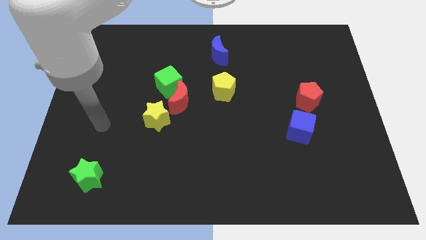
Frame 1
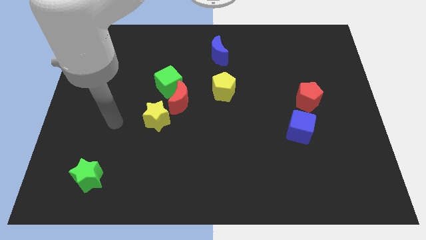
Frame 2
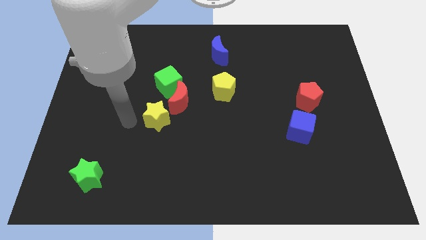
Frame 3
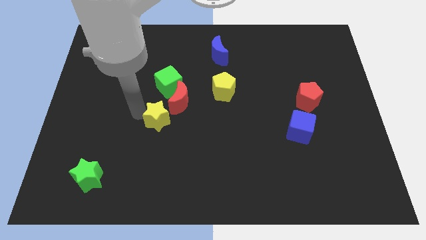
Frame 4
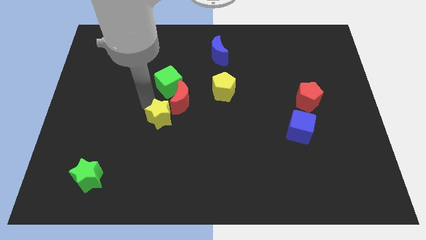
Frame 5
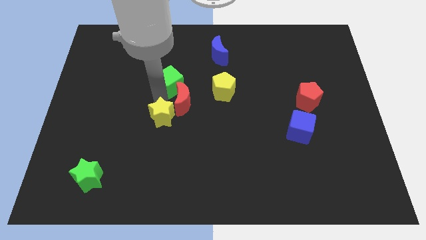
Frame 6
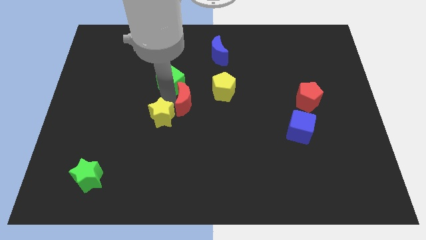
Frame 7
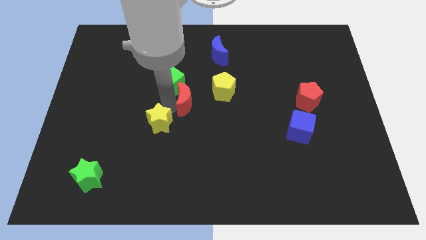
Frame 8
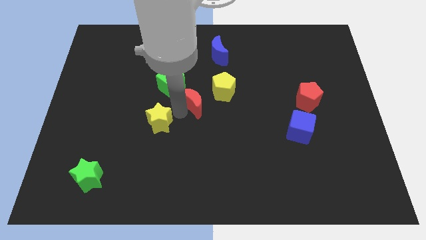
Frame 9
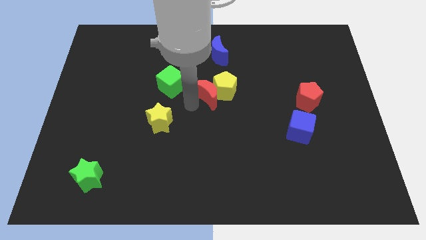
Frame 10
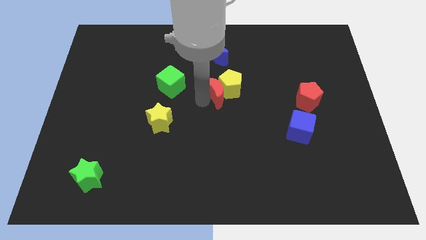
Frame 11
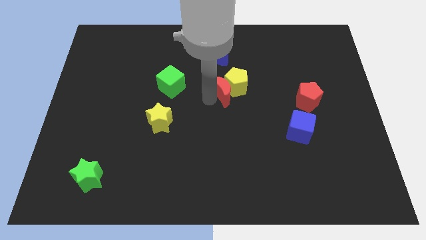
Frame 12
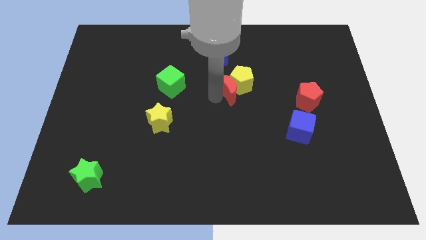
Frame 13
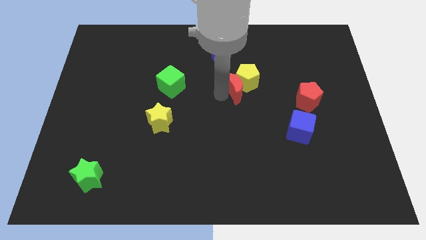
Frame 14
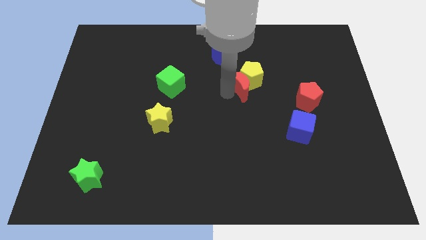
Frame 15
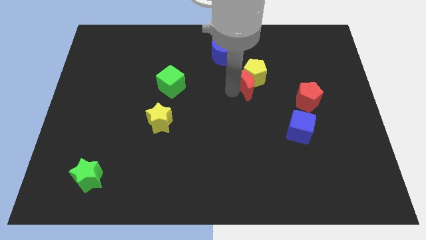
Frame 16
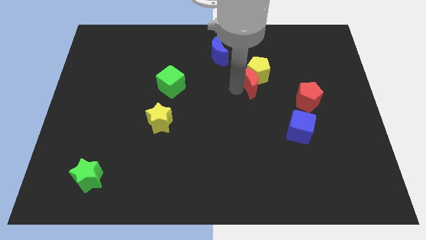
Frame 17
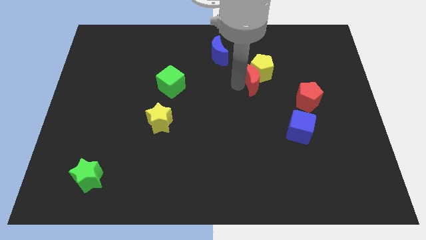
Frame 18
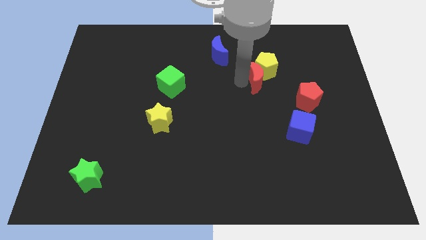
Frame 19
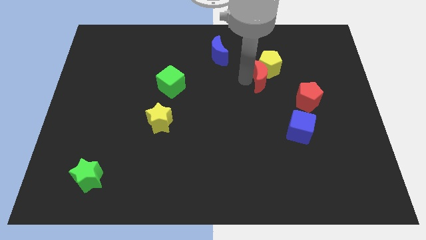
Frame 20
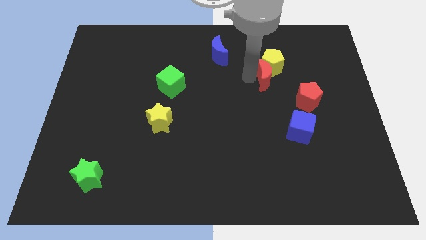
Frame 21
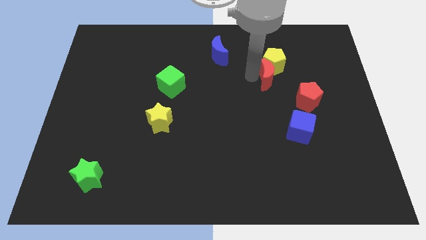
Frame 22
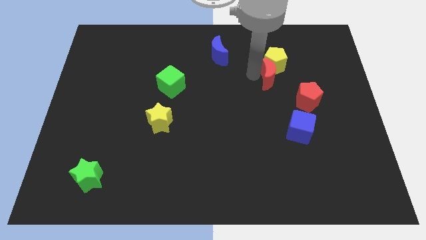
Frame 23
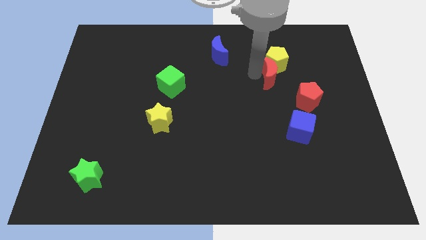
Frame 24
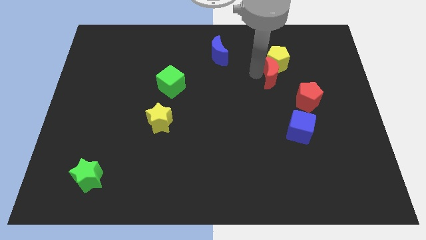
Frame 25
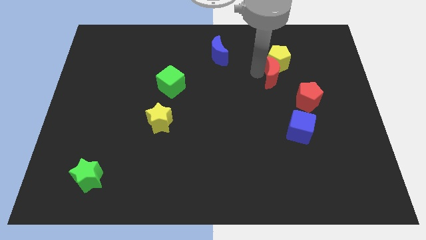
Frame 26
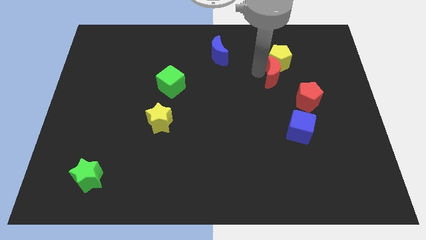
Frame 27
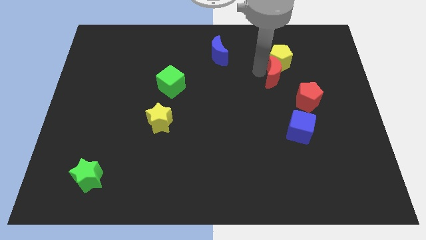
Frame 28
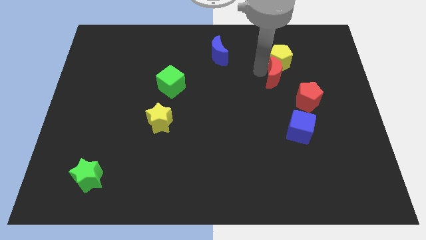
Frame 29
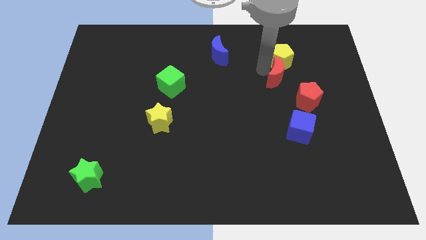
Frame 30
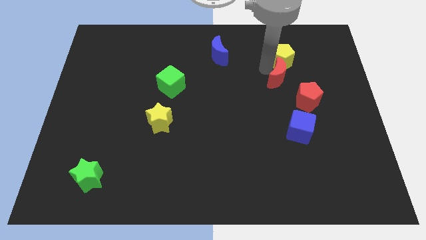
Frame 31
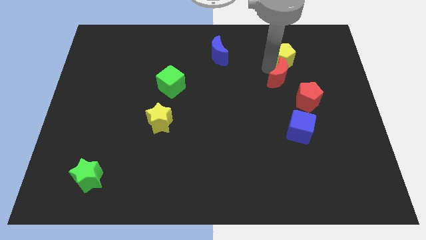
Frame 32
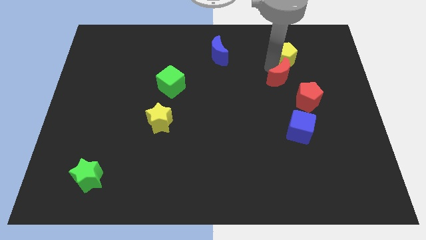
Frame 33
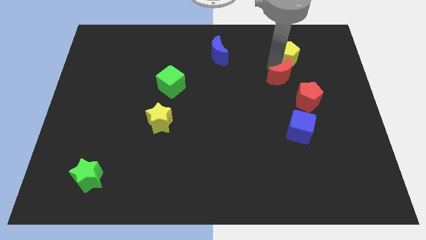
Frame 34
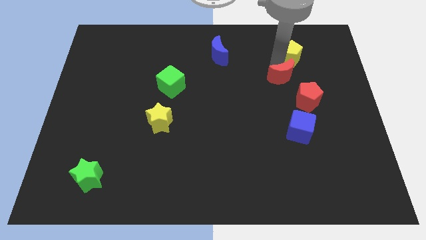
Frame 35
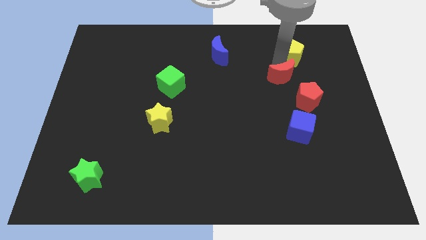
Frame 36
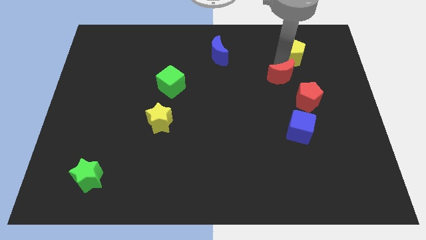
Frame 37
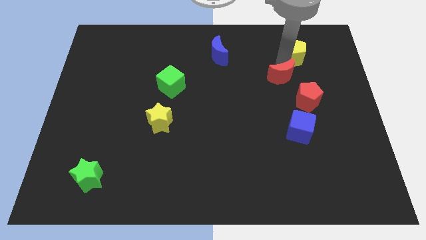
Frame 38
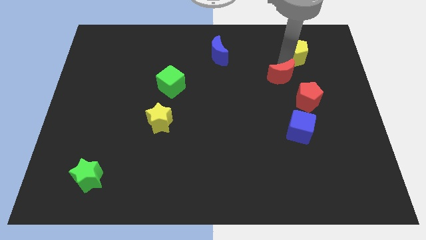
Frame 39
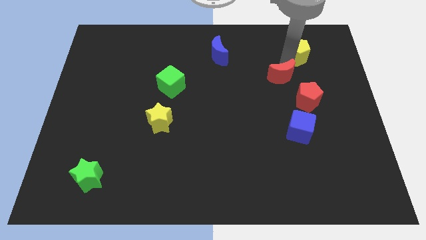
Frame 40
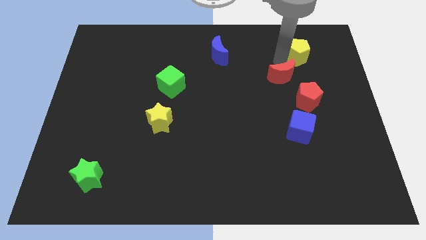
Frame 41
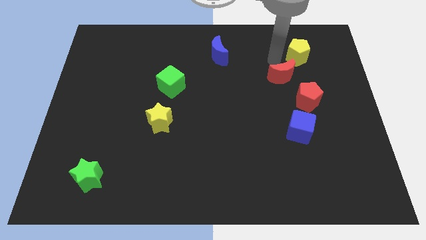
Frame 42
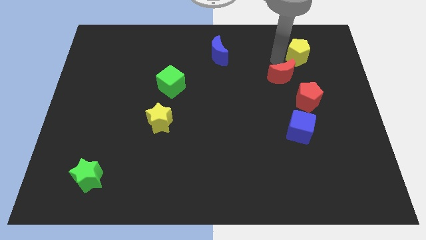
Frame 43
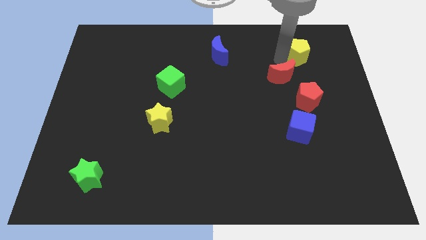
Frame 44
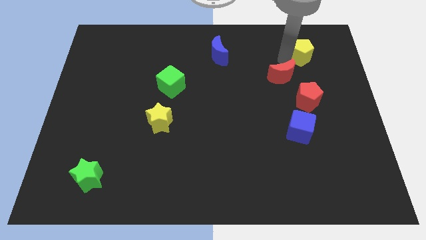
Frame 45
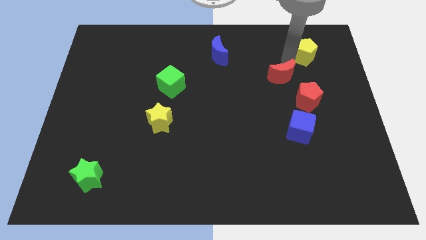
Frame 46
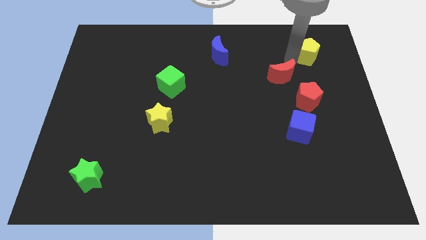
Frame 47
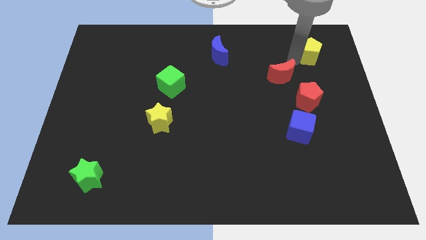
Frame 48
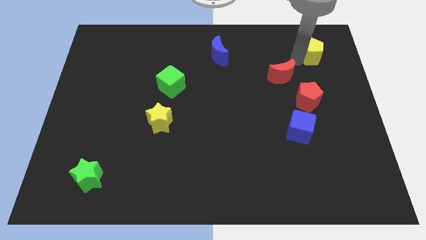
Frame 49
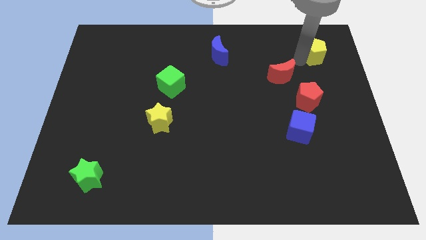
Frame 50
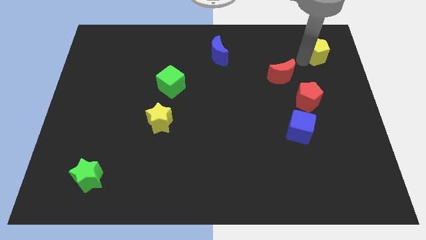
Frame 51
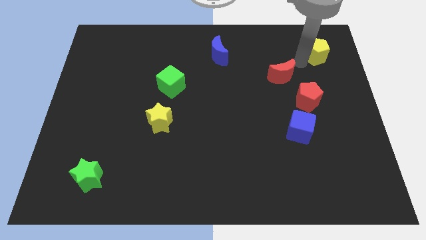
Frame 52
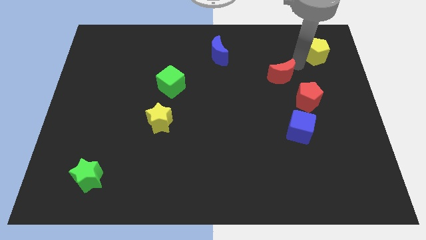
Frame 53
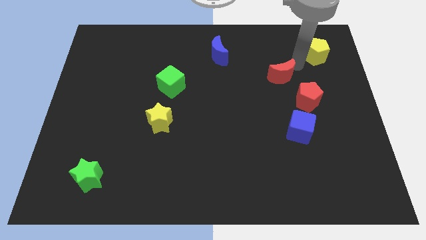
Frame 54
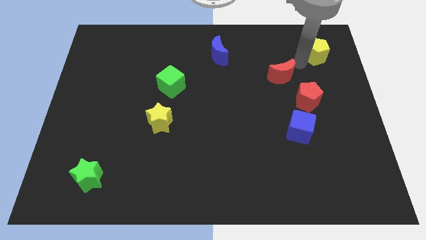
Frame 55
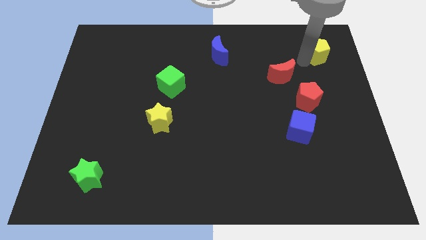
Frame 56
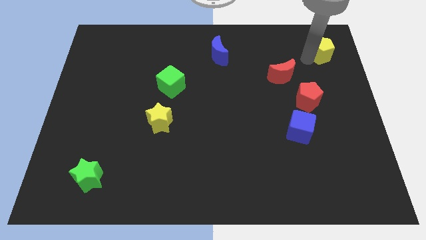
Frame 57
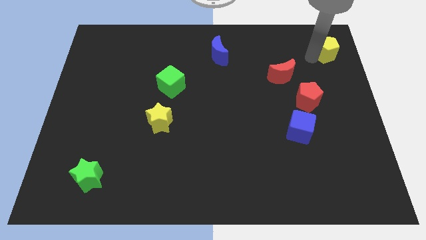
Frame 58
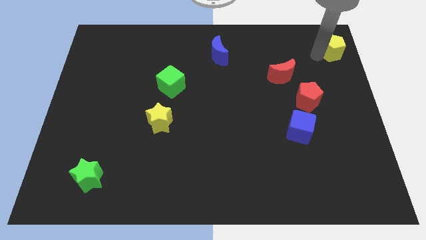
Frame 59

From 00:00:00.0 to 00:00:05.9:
move the yellow pentagon to the top right corner

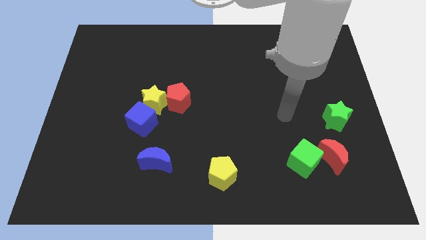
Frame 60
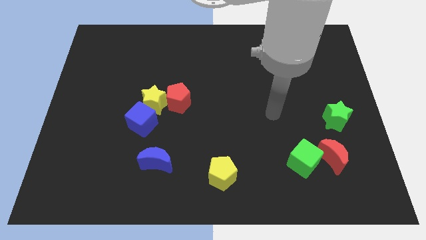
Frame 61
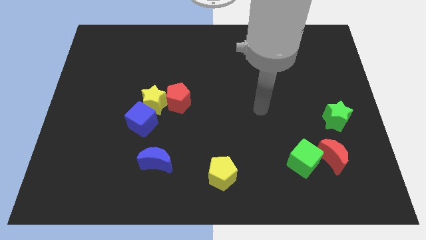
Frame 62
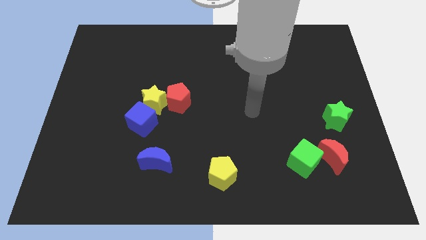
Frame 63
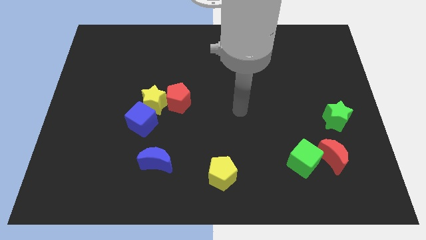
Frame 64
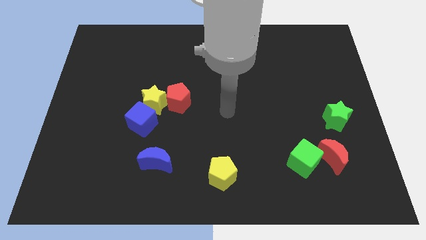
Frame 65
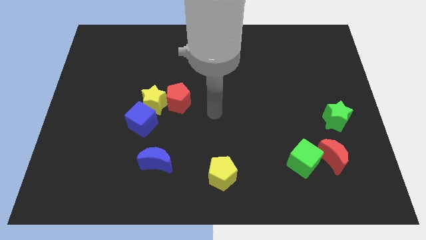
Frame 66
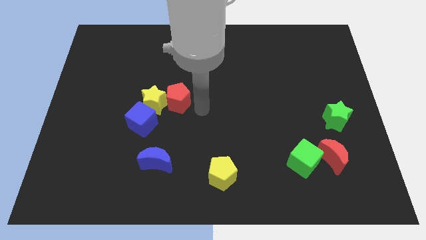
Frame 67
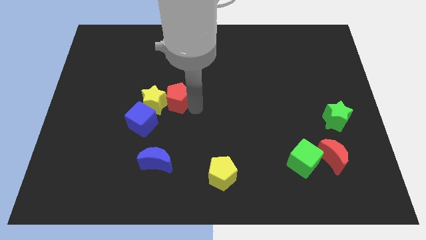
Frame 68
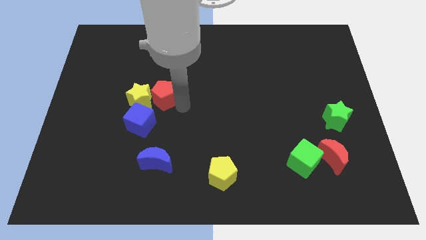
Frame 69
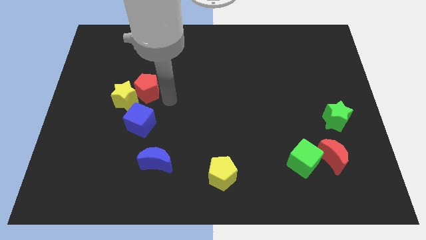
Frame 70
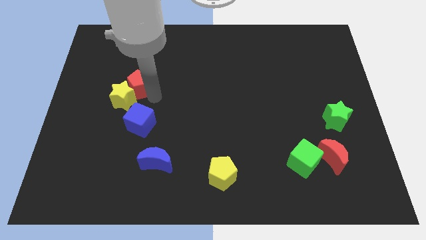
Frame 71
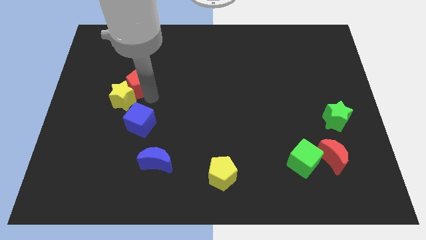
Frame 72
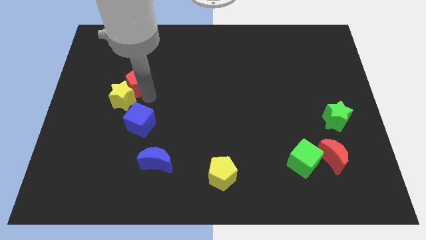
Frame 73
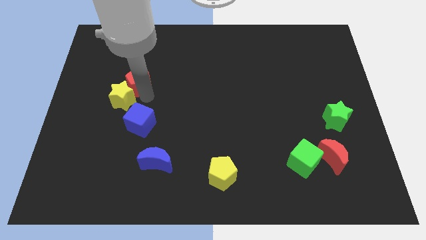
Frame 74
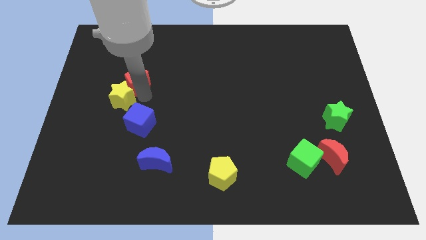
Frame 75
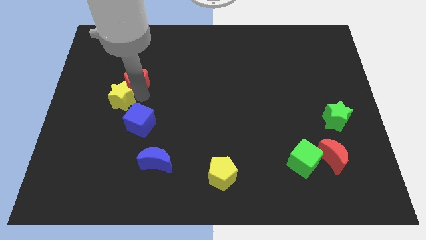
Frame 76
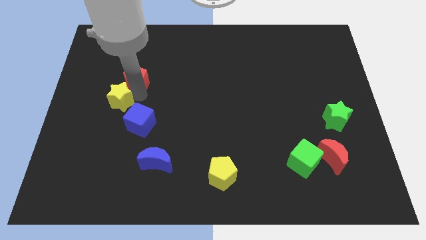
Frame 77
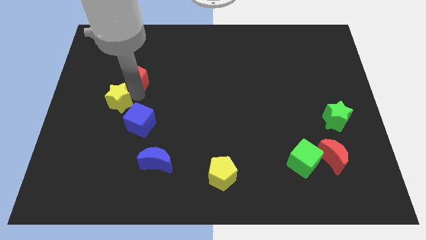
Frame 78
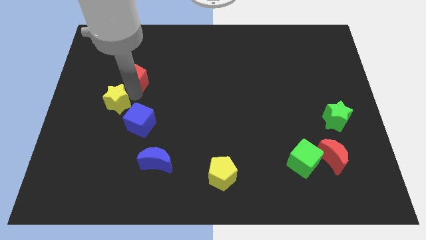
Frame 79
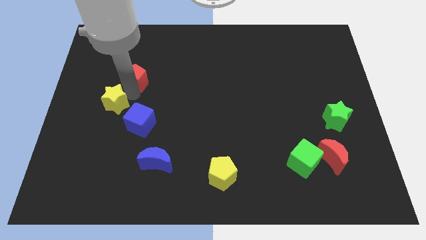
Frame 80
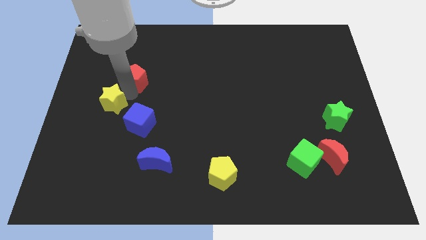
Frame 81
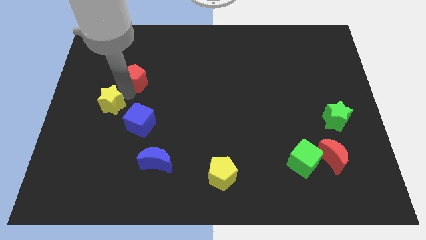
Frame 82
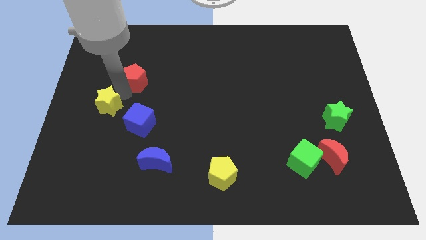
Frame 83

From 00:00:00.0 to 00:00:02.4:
move the yellow star to the center left
